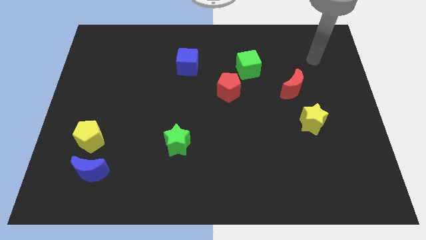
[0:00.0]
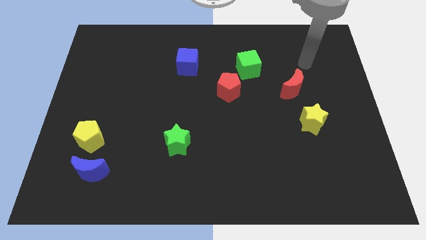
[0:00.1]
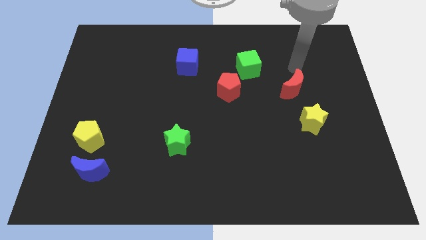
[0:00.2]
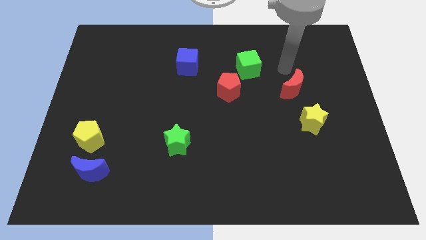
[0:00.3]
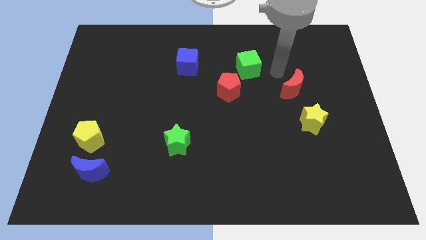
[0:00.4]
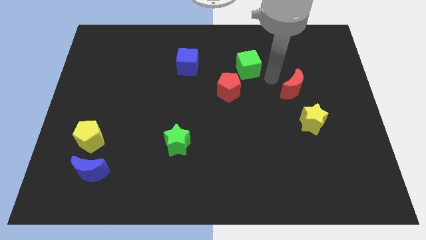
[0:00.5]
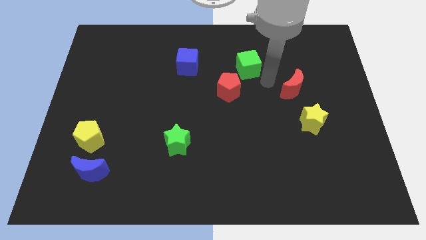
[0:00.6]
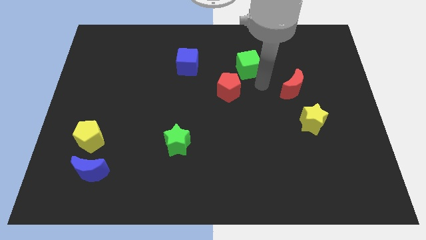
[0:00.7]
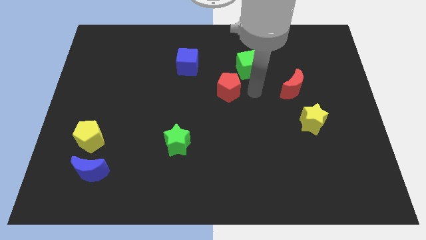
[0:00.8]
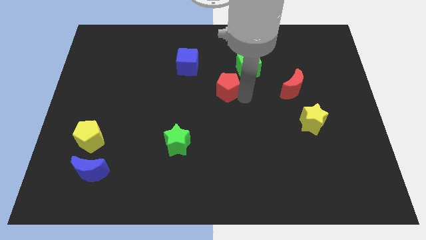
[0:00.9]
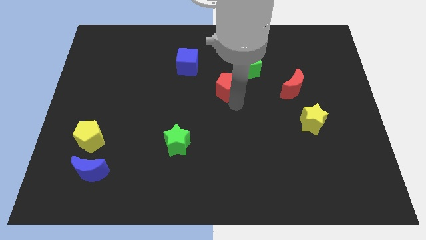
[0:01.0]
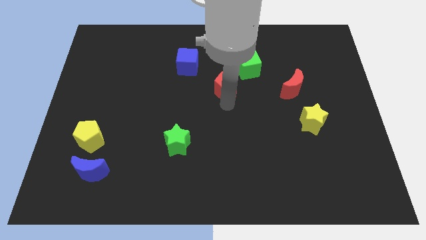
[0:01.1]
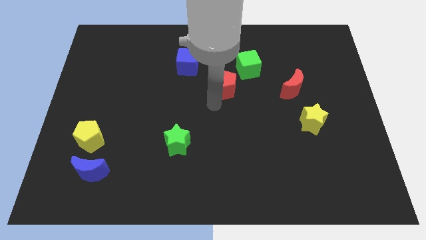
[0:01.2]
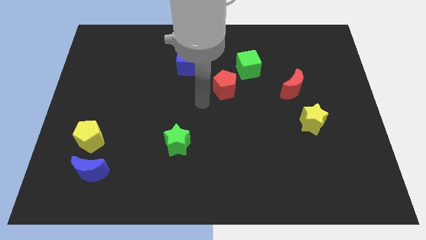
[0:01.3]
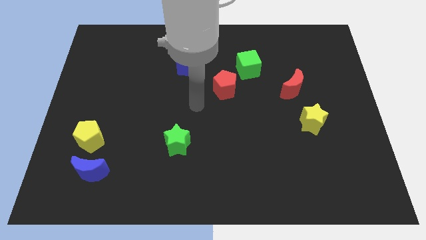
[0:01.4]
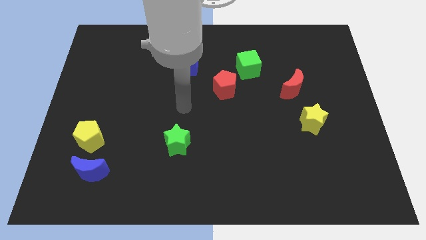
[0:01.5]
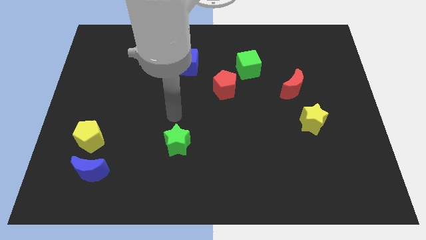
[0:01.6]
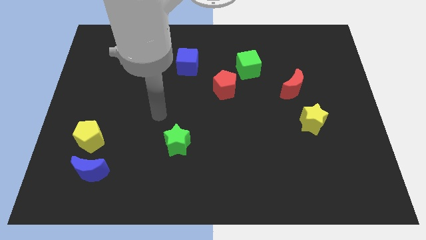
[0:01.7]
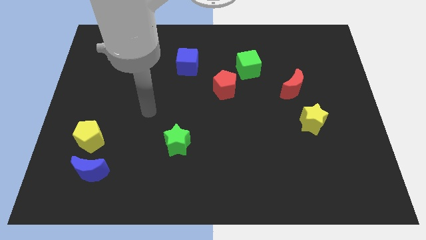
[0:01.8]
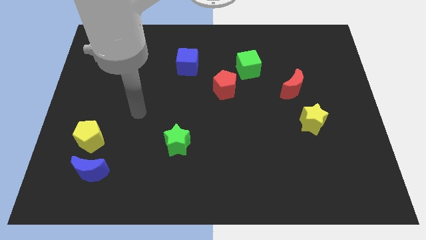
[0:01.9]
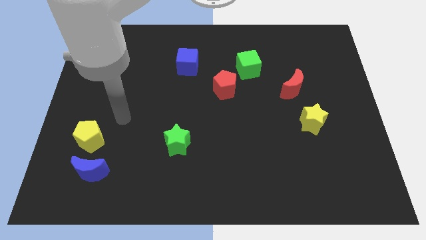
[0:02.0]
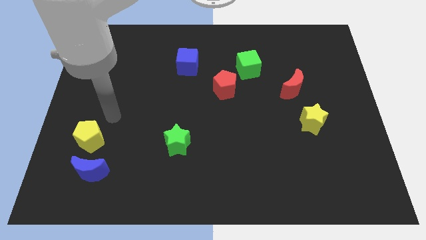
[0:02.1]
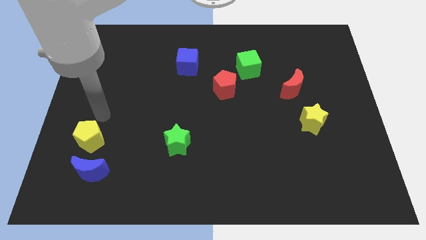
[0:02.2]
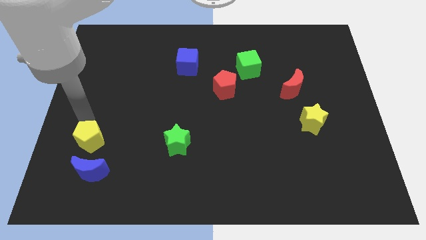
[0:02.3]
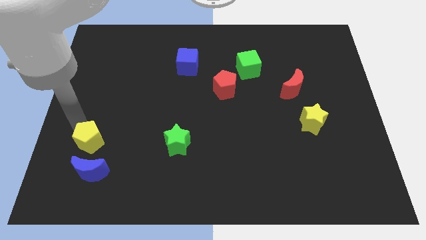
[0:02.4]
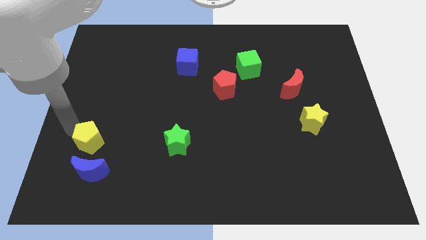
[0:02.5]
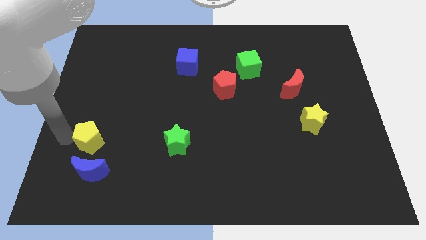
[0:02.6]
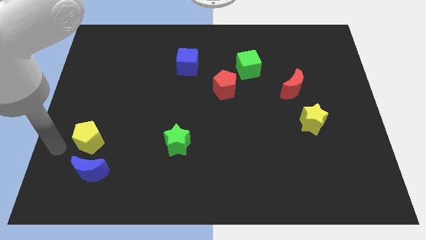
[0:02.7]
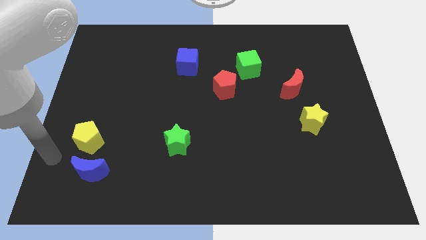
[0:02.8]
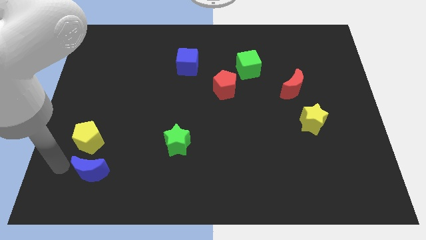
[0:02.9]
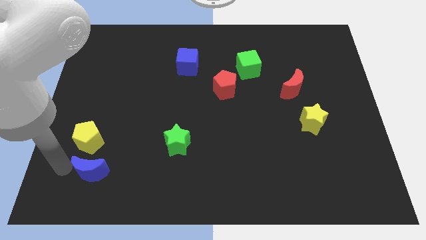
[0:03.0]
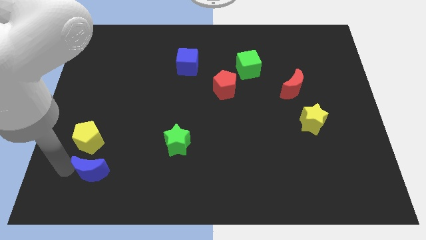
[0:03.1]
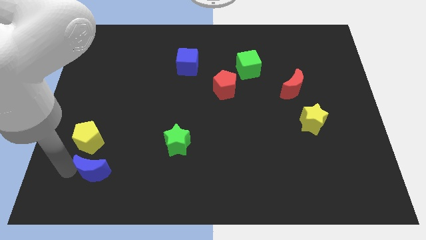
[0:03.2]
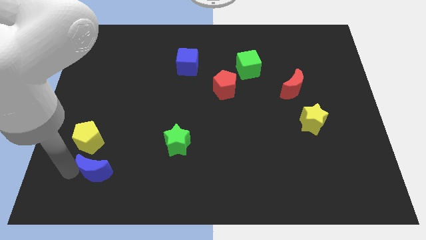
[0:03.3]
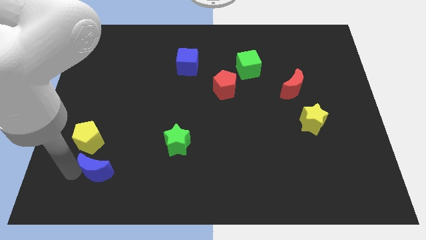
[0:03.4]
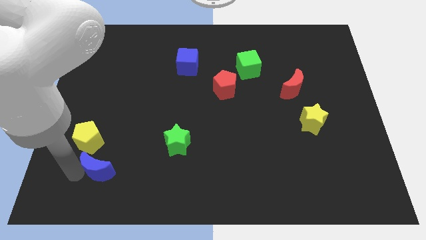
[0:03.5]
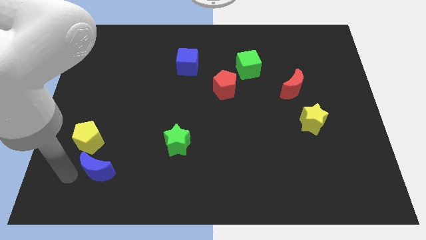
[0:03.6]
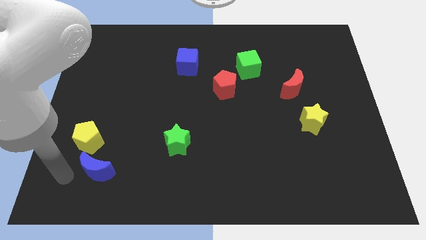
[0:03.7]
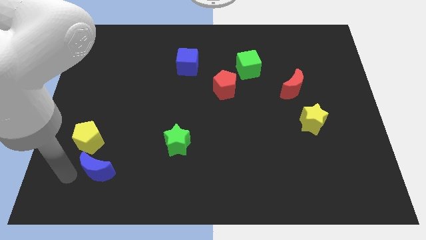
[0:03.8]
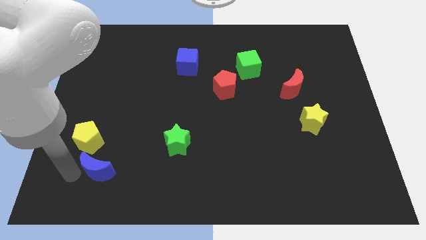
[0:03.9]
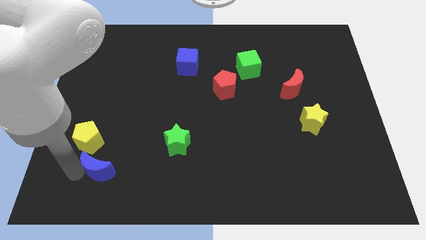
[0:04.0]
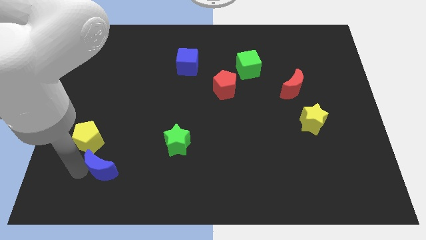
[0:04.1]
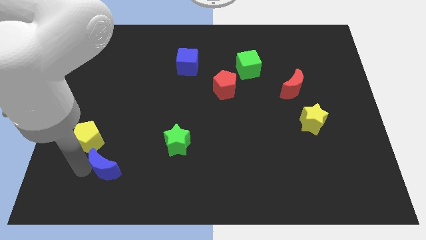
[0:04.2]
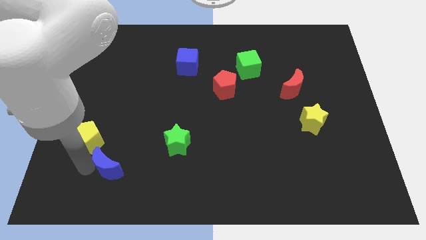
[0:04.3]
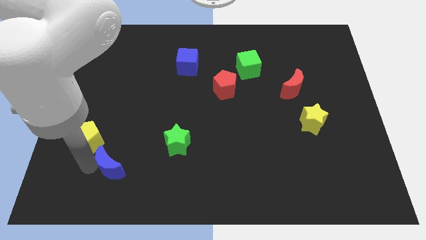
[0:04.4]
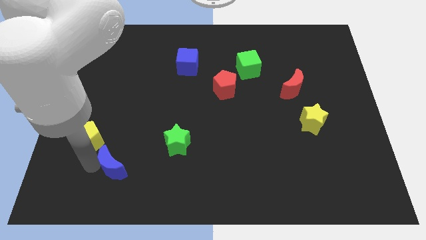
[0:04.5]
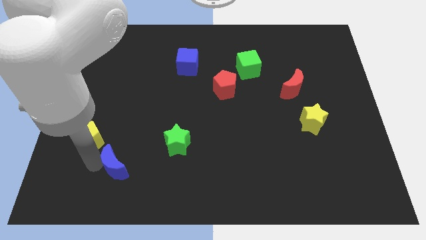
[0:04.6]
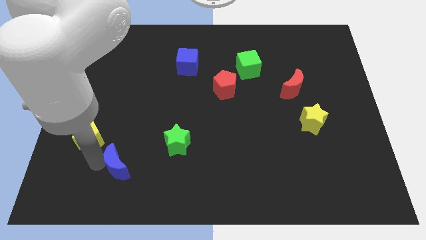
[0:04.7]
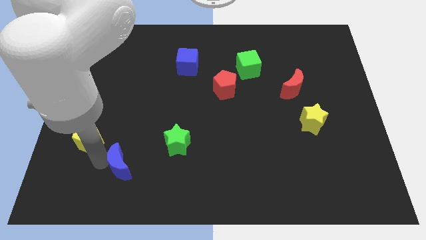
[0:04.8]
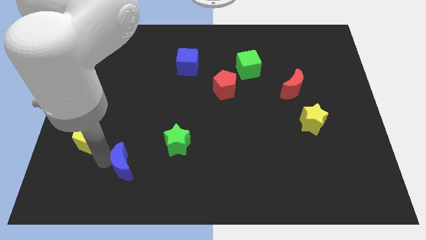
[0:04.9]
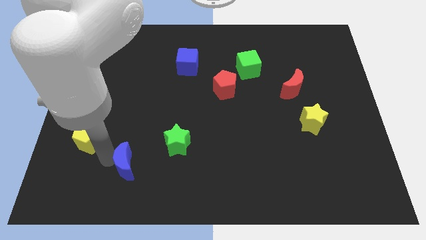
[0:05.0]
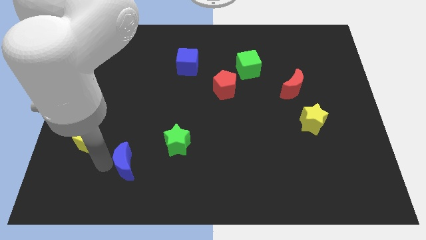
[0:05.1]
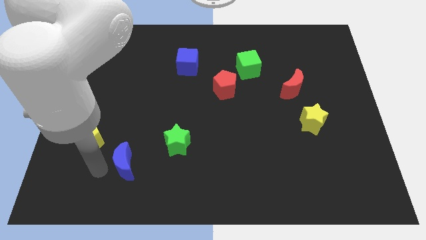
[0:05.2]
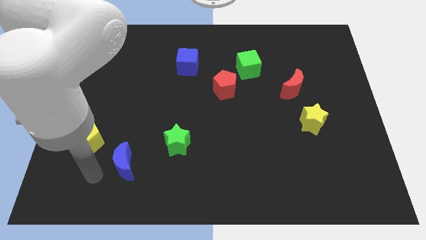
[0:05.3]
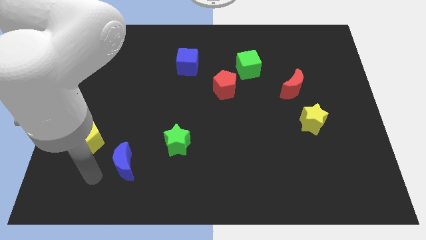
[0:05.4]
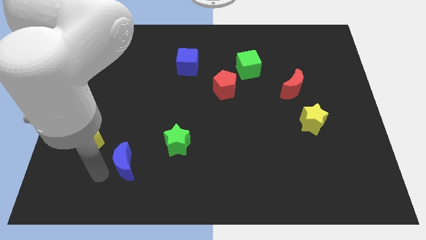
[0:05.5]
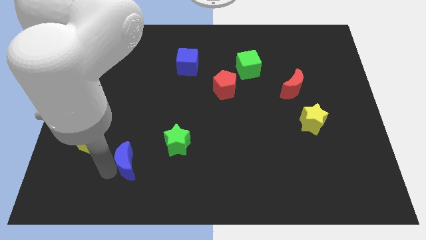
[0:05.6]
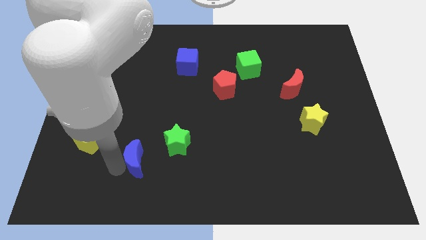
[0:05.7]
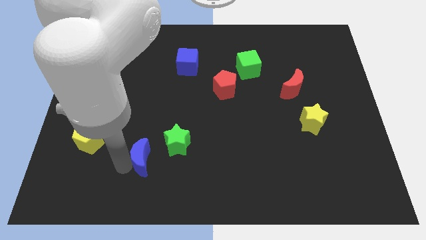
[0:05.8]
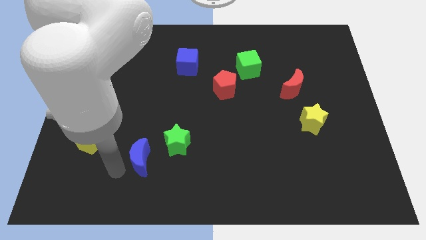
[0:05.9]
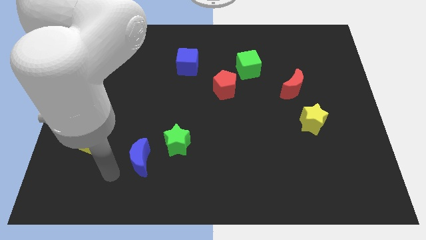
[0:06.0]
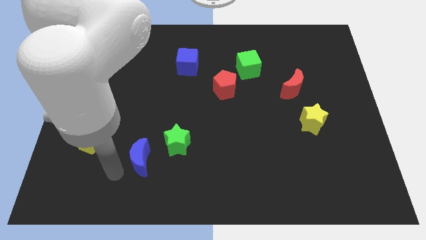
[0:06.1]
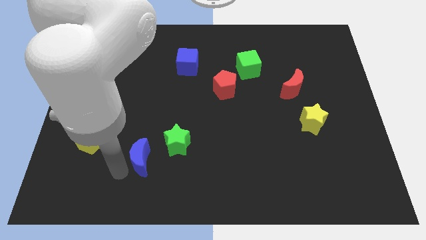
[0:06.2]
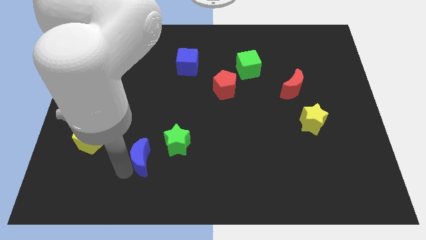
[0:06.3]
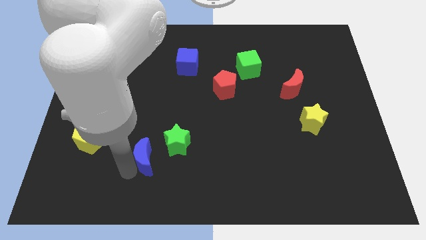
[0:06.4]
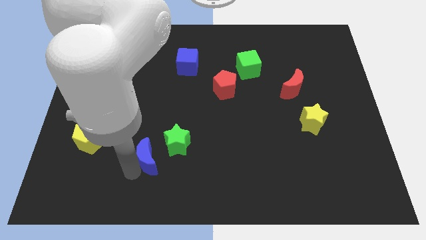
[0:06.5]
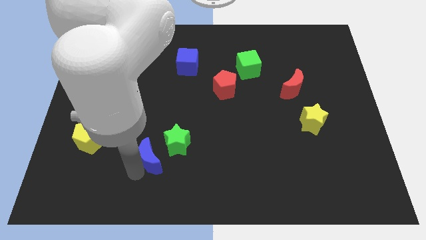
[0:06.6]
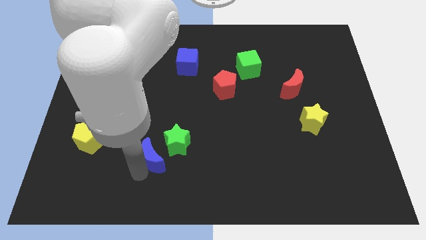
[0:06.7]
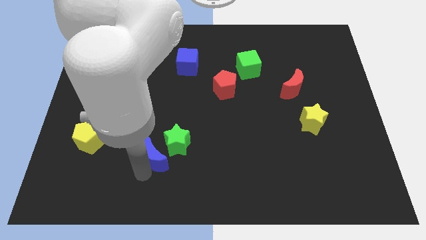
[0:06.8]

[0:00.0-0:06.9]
push the blue moon next to the green star
